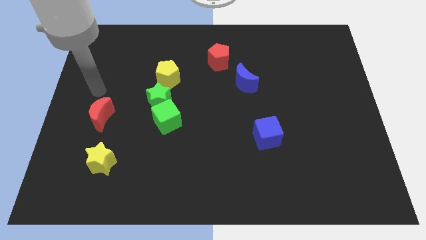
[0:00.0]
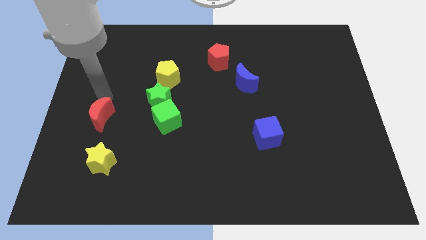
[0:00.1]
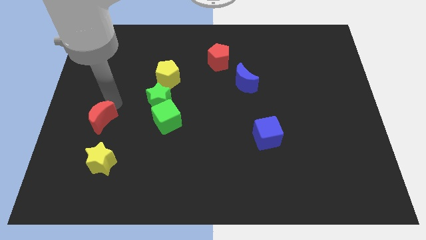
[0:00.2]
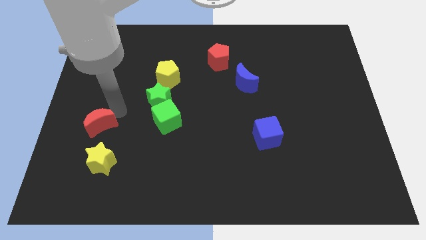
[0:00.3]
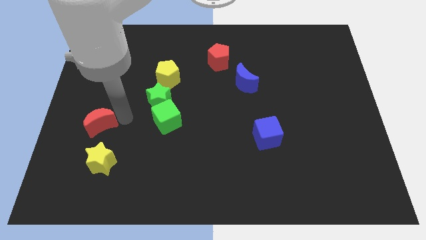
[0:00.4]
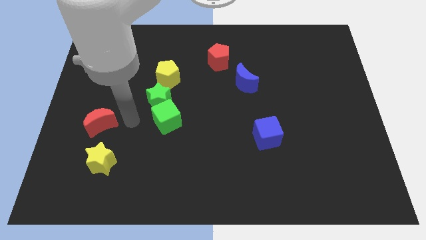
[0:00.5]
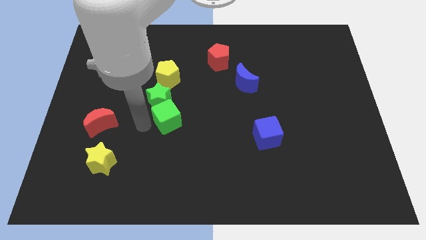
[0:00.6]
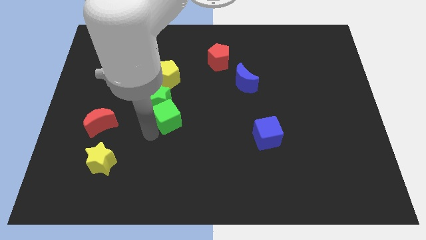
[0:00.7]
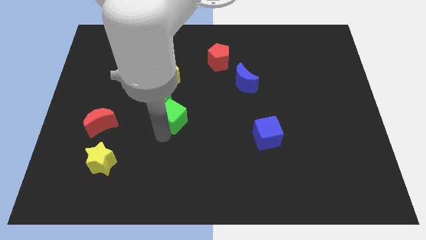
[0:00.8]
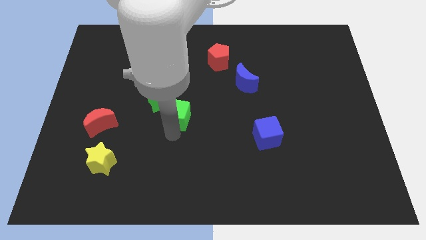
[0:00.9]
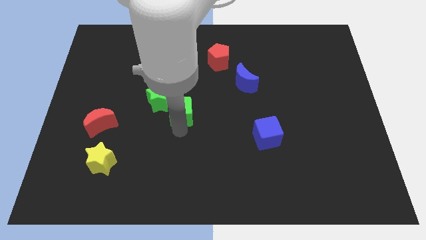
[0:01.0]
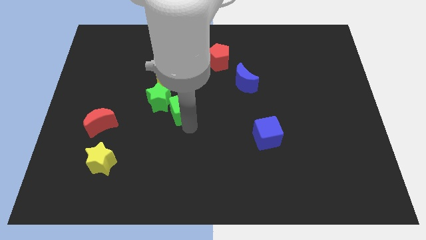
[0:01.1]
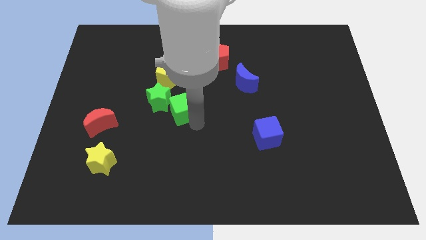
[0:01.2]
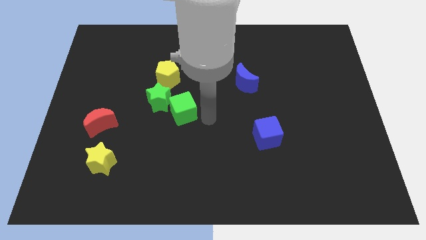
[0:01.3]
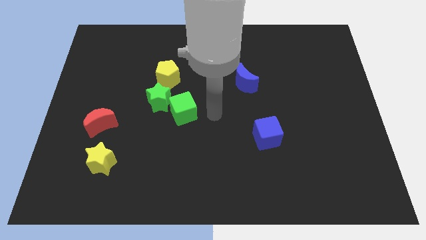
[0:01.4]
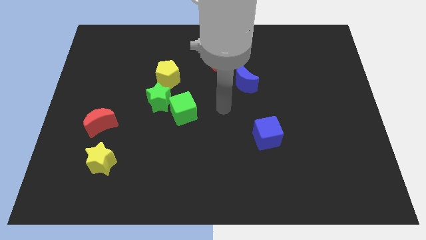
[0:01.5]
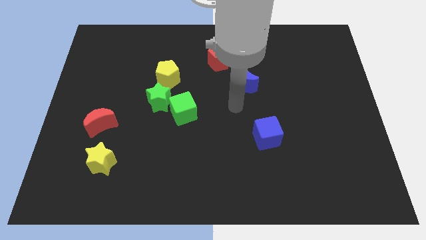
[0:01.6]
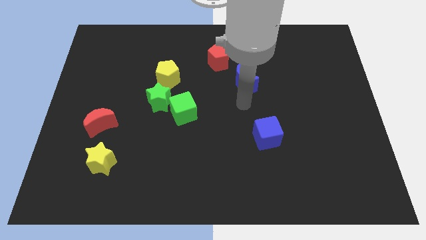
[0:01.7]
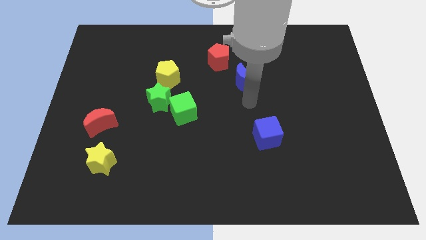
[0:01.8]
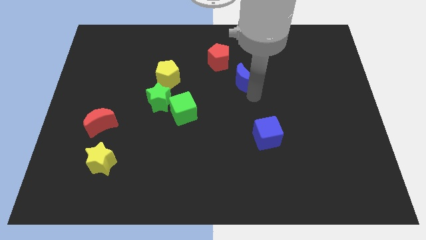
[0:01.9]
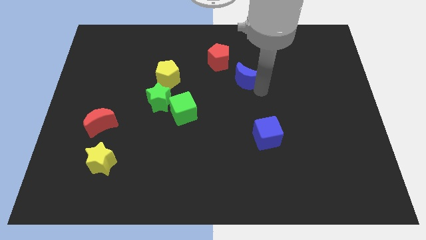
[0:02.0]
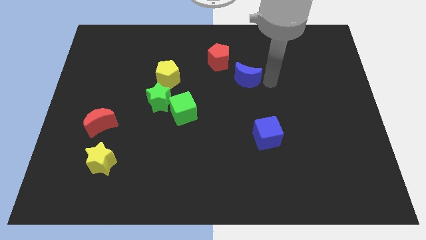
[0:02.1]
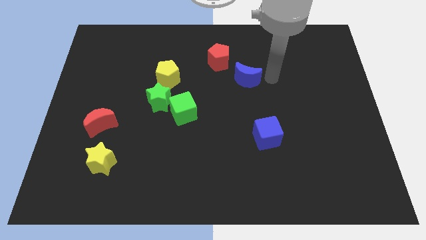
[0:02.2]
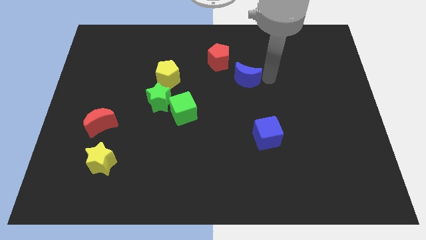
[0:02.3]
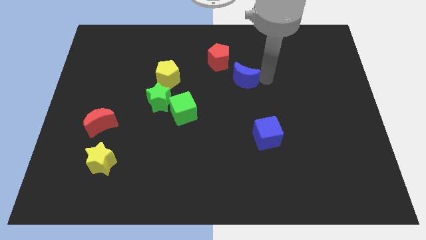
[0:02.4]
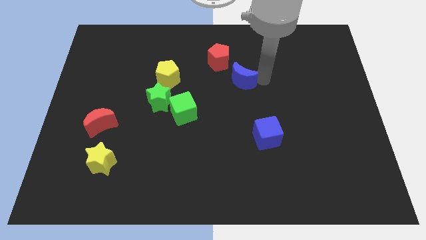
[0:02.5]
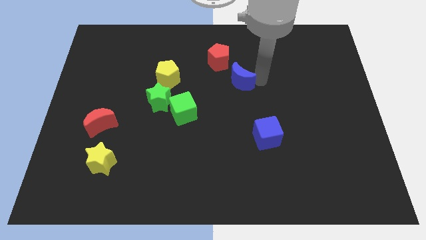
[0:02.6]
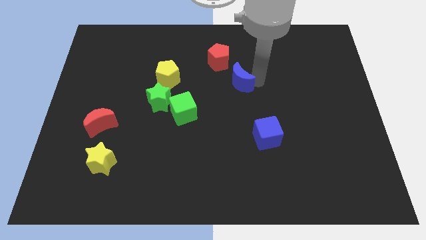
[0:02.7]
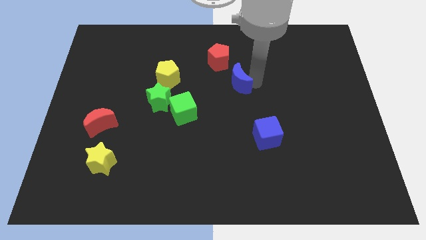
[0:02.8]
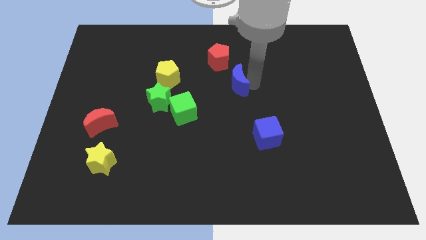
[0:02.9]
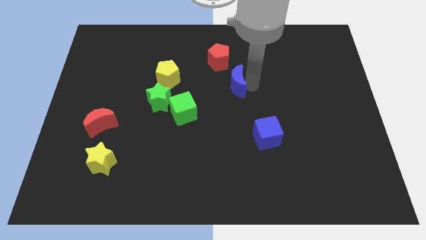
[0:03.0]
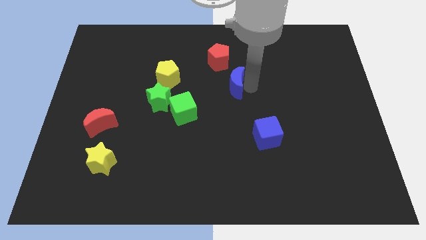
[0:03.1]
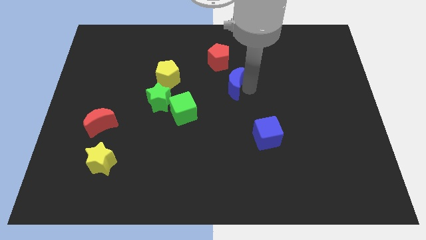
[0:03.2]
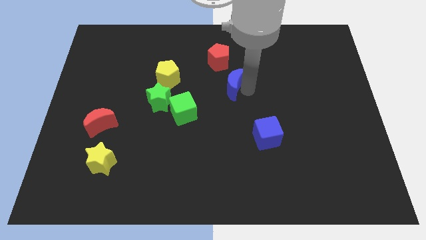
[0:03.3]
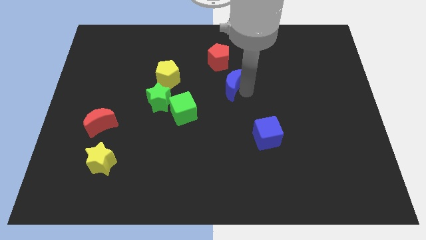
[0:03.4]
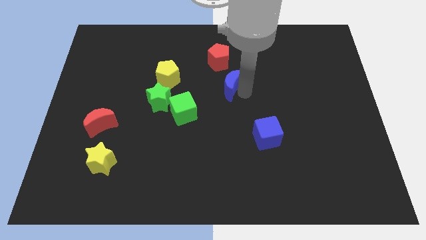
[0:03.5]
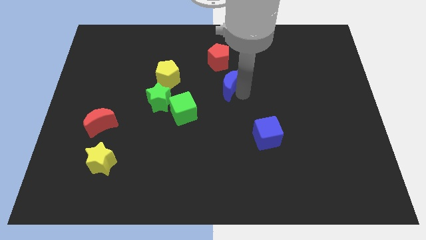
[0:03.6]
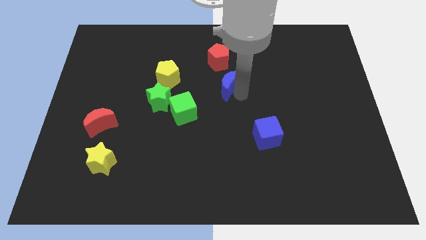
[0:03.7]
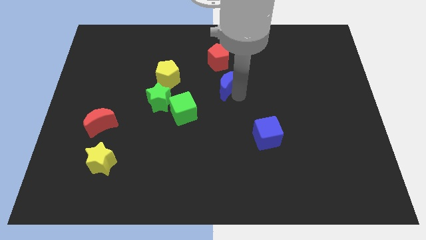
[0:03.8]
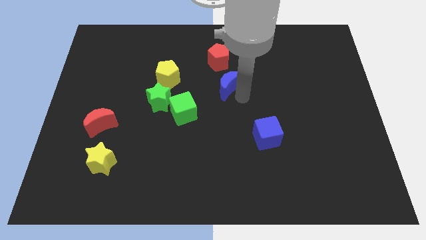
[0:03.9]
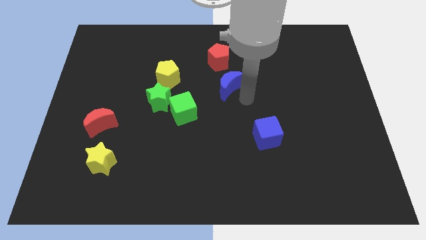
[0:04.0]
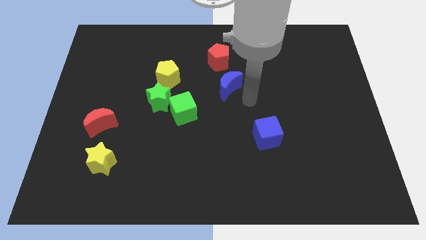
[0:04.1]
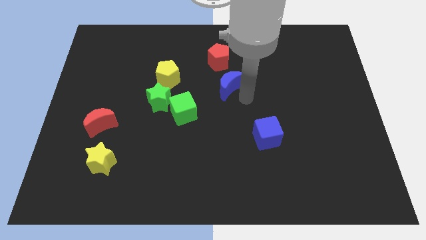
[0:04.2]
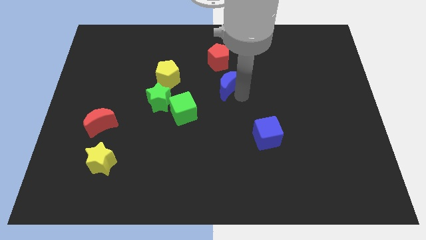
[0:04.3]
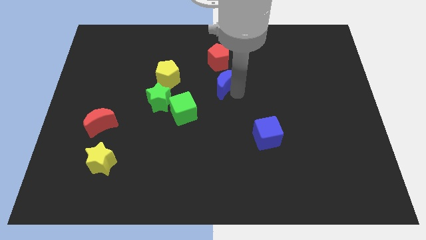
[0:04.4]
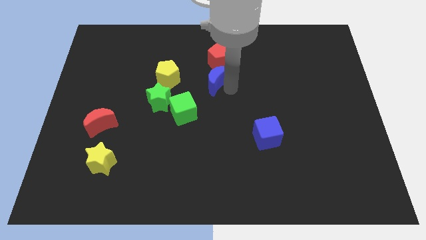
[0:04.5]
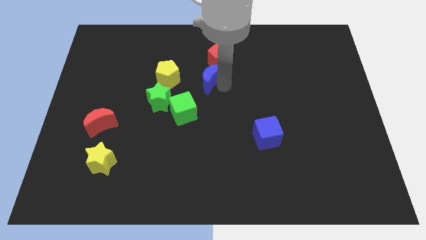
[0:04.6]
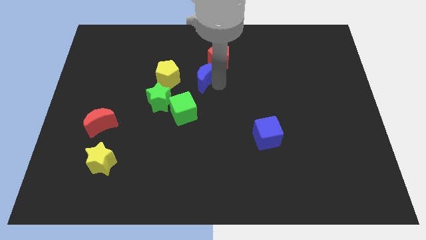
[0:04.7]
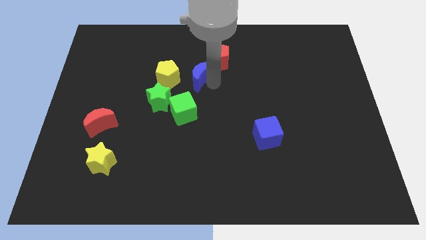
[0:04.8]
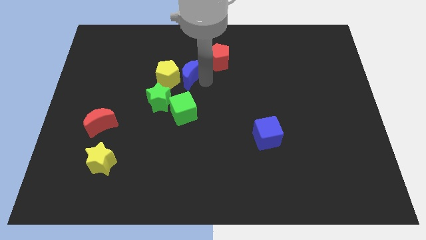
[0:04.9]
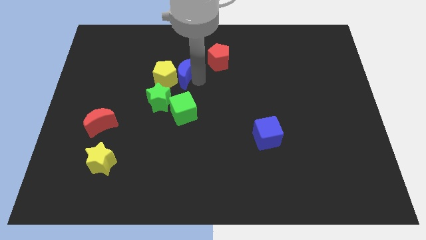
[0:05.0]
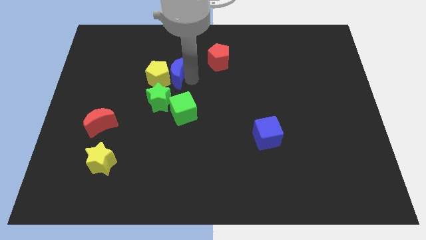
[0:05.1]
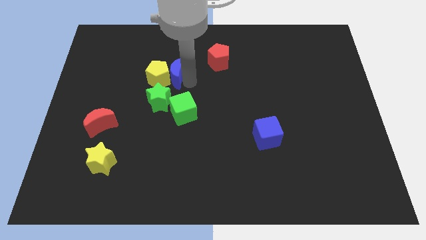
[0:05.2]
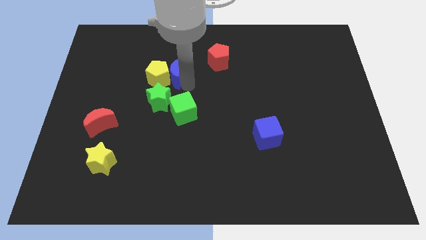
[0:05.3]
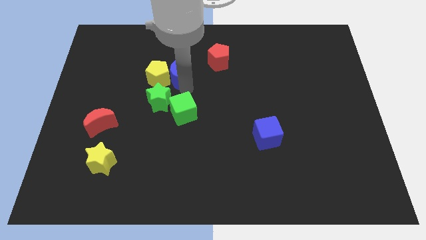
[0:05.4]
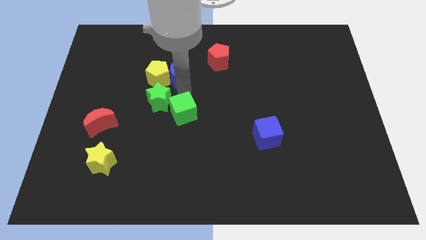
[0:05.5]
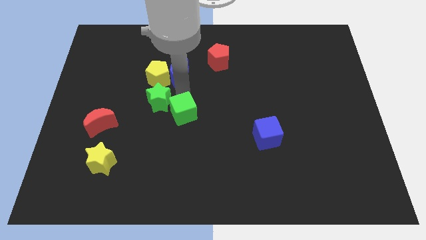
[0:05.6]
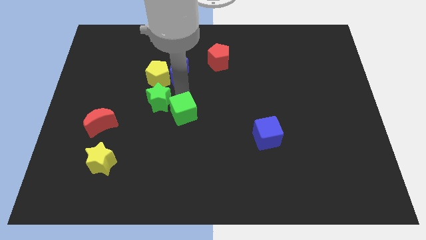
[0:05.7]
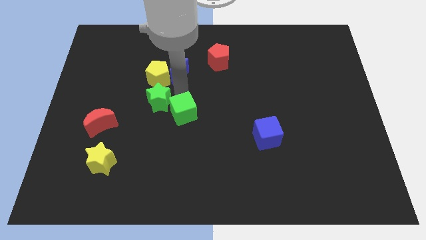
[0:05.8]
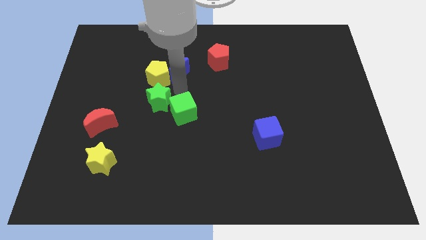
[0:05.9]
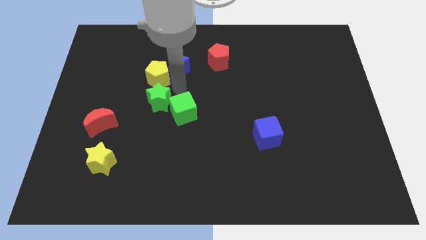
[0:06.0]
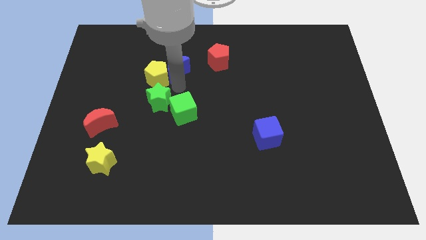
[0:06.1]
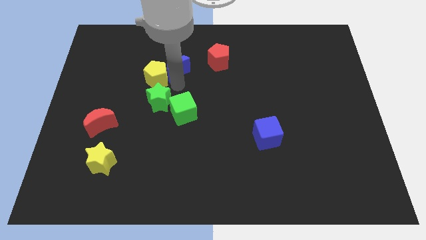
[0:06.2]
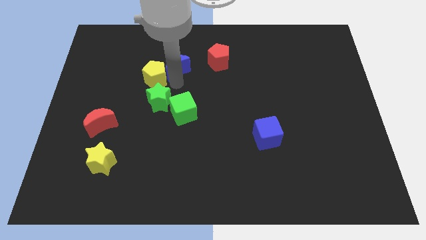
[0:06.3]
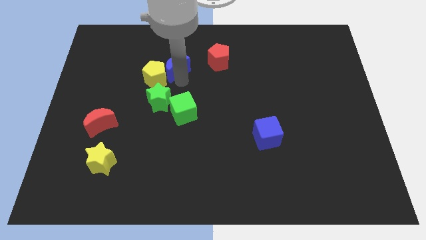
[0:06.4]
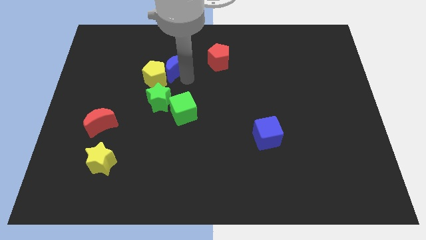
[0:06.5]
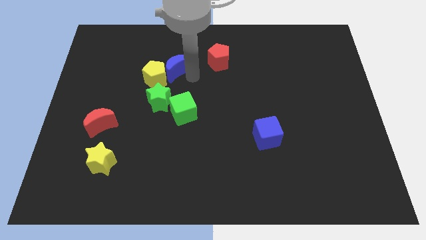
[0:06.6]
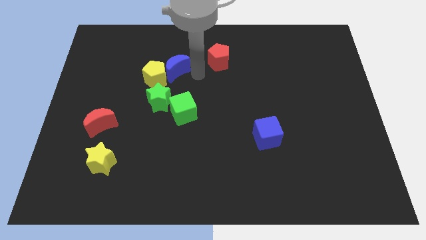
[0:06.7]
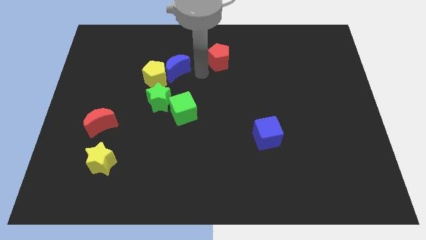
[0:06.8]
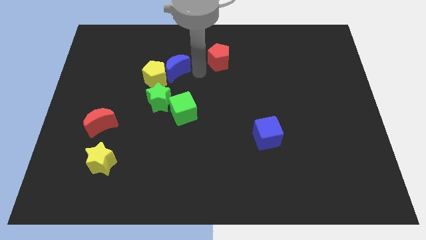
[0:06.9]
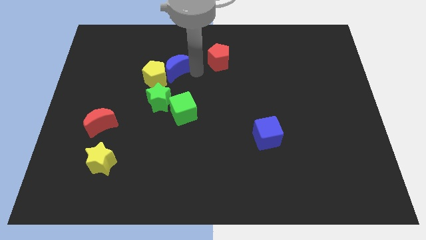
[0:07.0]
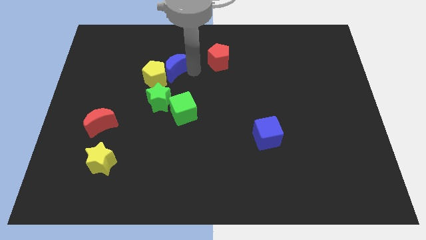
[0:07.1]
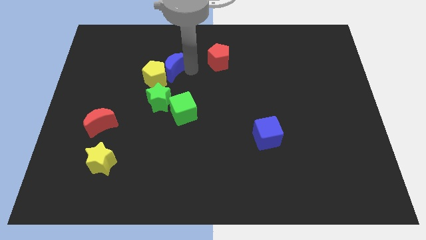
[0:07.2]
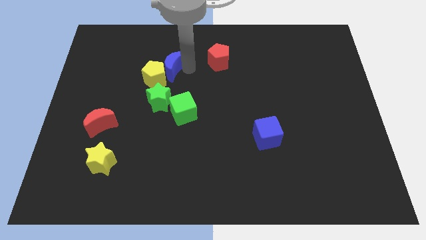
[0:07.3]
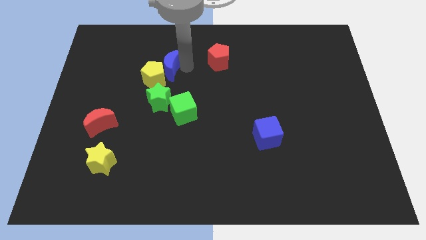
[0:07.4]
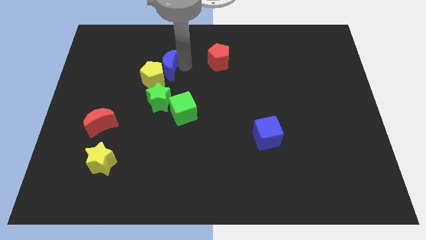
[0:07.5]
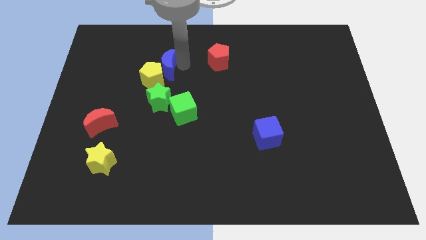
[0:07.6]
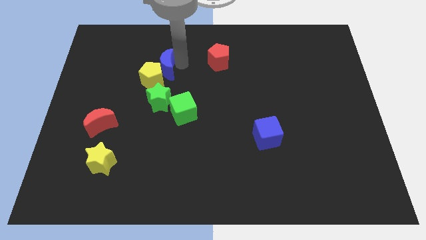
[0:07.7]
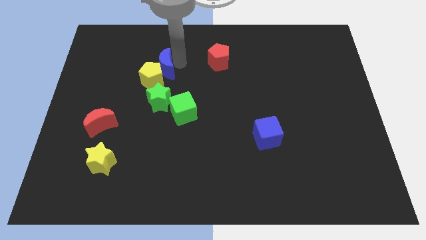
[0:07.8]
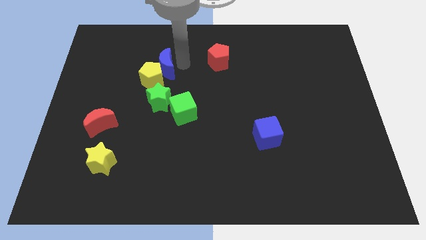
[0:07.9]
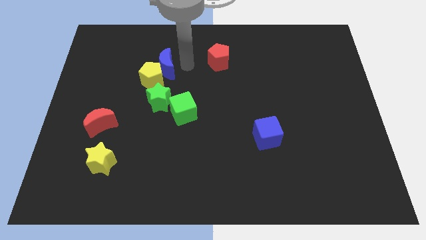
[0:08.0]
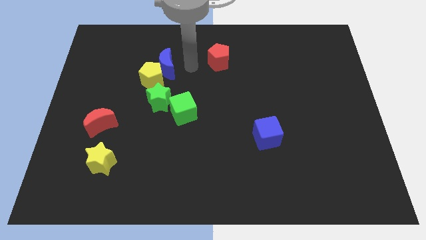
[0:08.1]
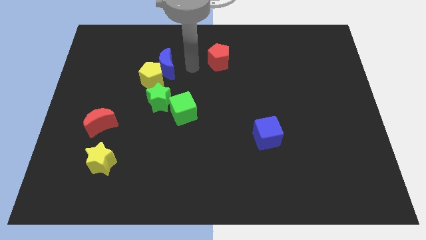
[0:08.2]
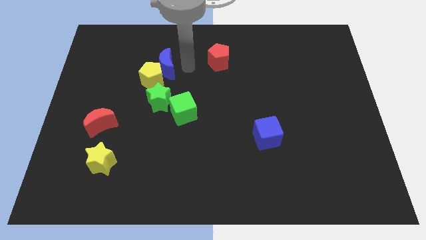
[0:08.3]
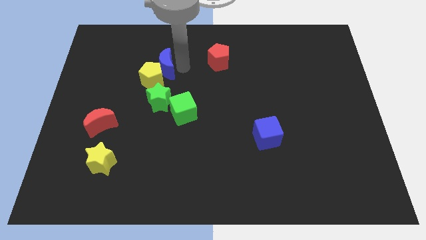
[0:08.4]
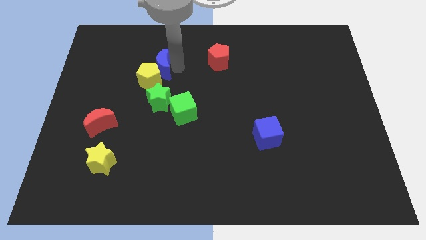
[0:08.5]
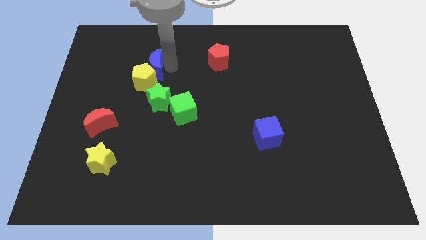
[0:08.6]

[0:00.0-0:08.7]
push the blue moon to the left
